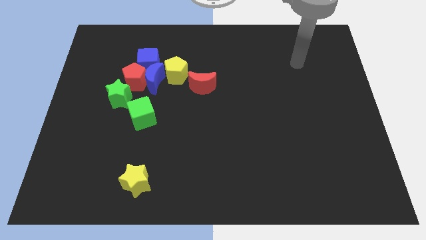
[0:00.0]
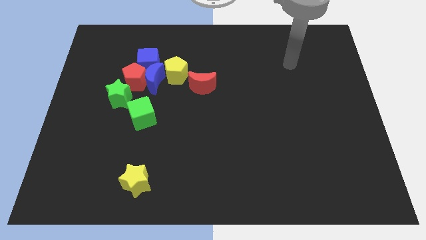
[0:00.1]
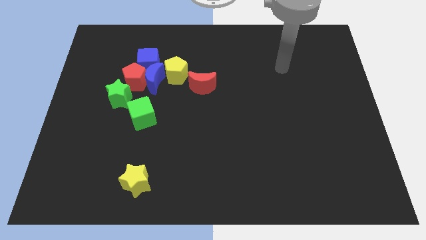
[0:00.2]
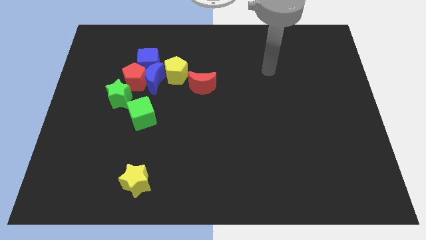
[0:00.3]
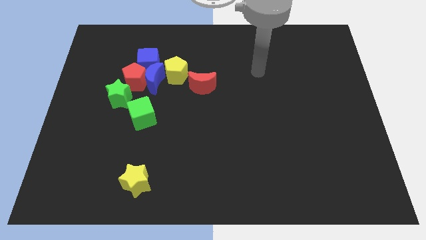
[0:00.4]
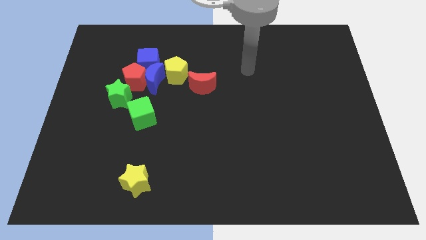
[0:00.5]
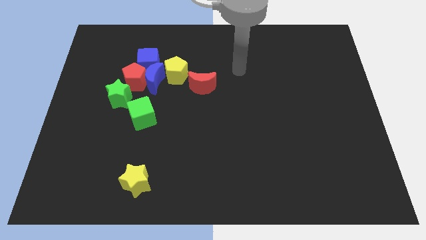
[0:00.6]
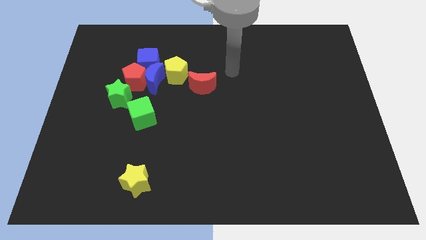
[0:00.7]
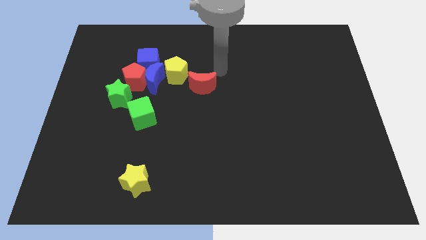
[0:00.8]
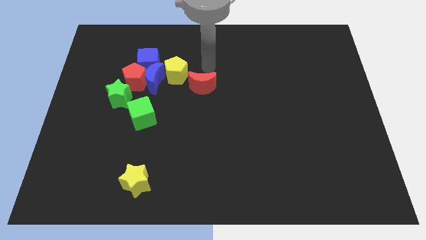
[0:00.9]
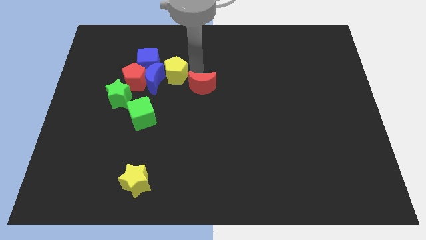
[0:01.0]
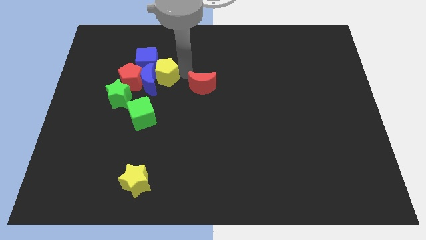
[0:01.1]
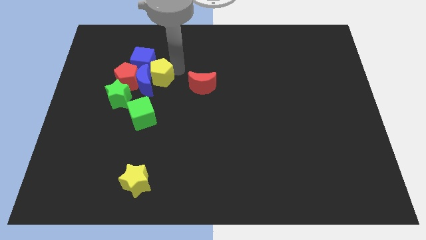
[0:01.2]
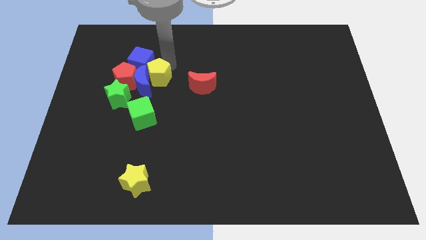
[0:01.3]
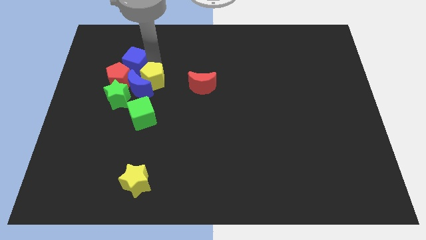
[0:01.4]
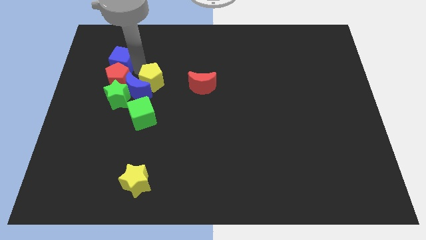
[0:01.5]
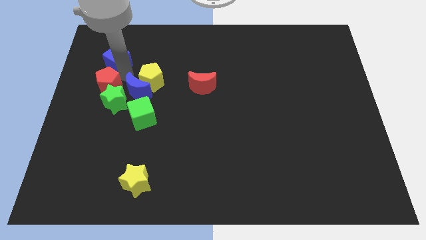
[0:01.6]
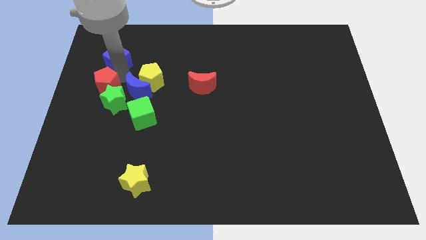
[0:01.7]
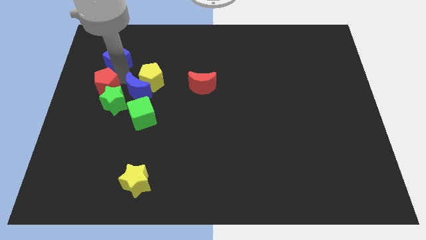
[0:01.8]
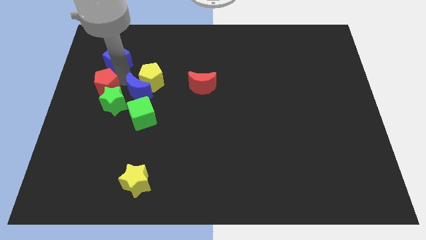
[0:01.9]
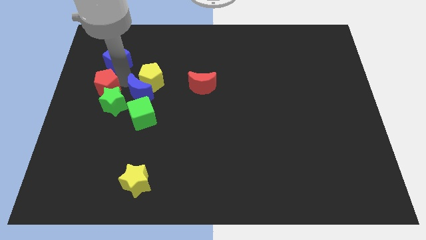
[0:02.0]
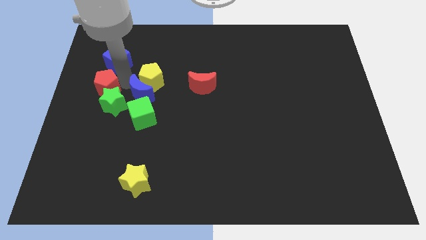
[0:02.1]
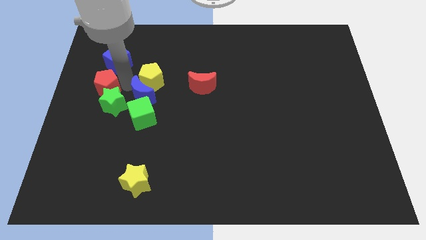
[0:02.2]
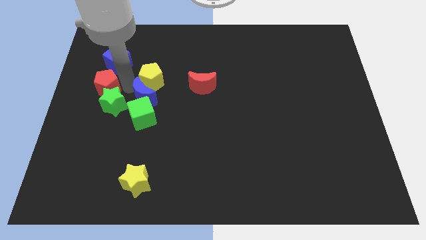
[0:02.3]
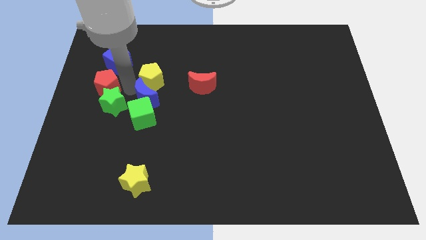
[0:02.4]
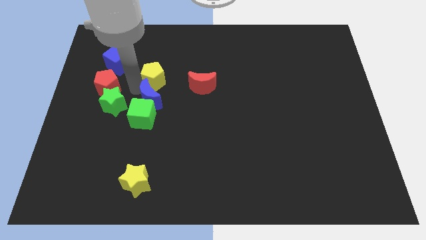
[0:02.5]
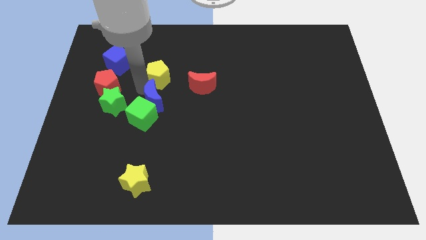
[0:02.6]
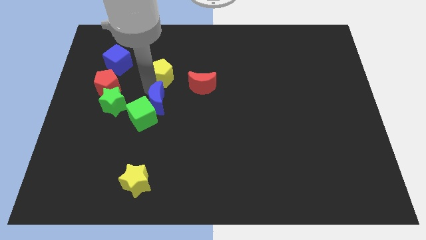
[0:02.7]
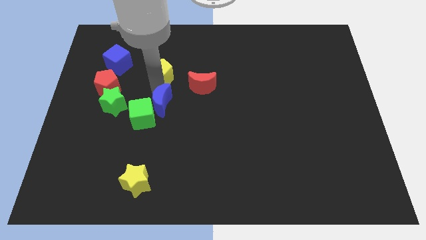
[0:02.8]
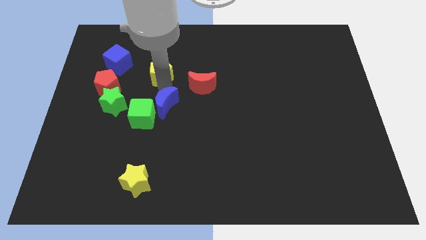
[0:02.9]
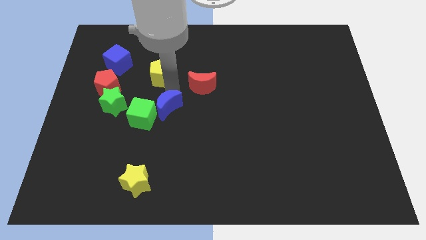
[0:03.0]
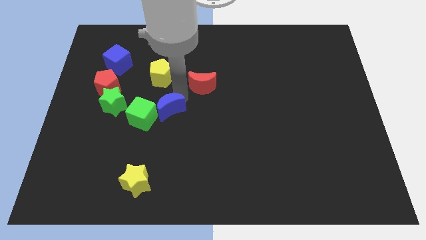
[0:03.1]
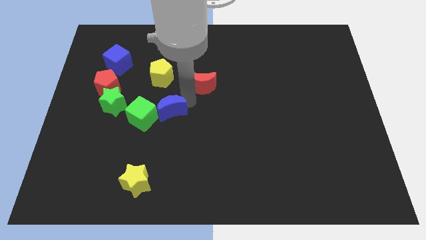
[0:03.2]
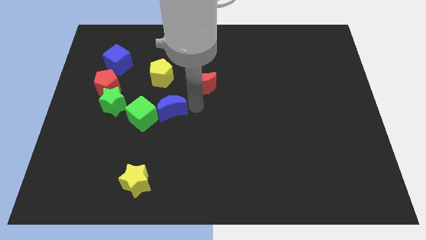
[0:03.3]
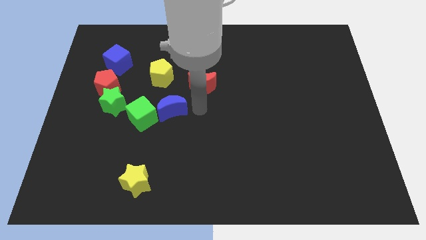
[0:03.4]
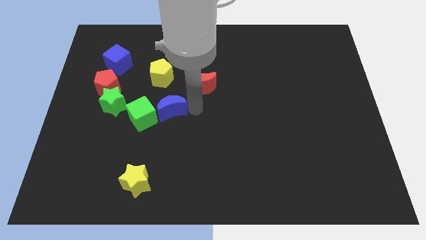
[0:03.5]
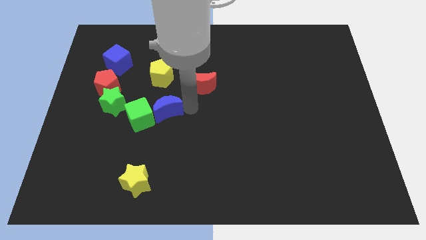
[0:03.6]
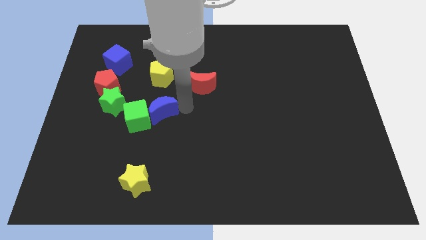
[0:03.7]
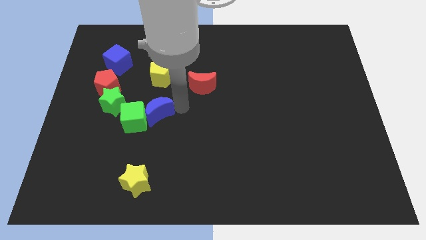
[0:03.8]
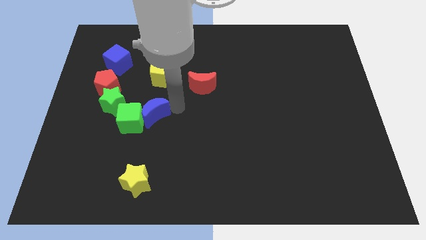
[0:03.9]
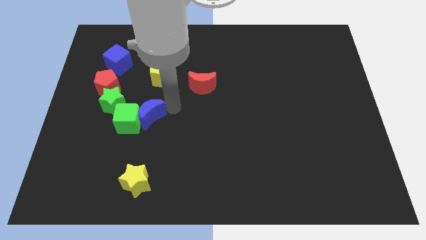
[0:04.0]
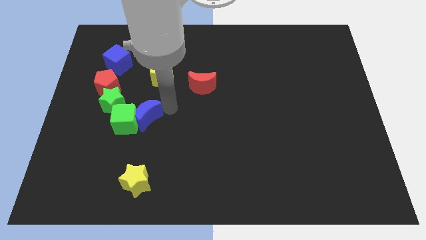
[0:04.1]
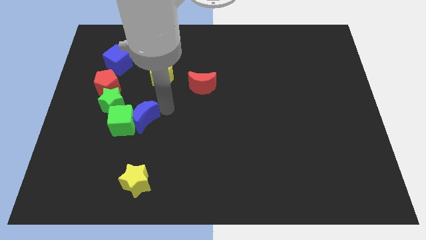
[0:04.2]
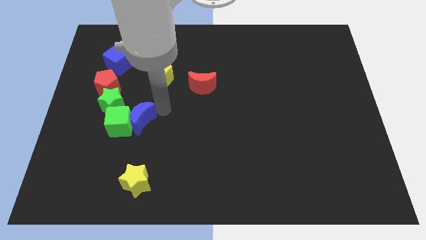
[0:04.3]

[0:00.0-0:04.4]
slightly move the blue moon down and to the left

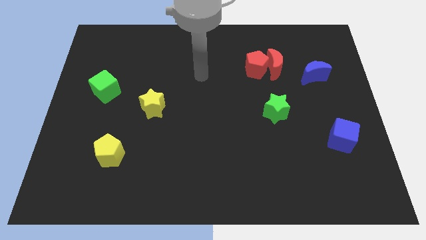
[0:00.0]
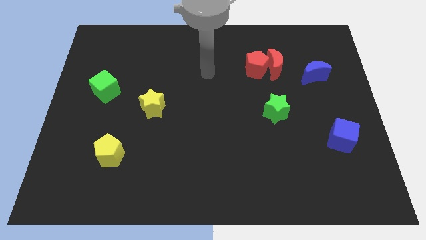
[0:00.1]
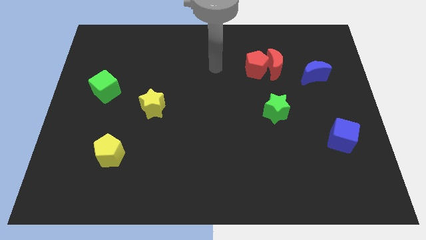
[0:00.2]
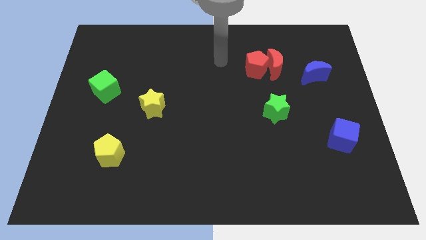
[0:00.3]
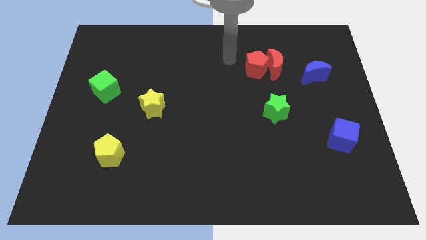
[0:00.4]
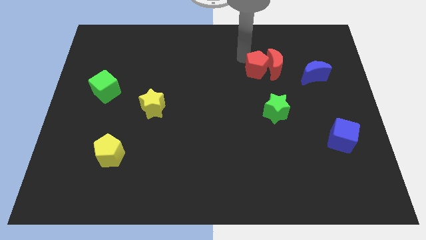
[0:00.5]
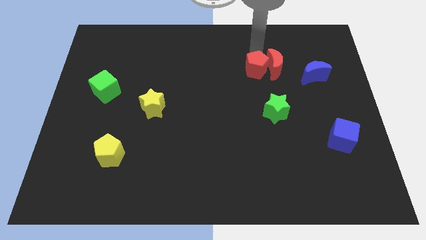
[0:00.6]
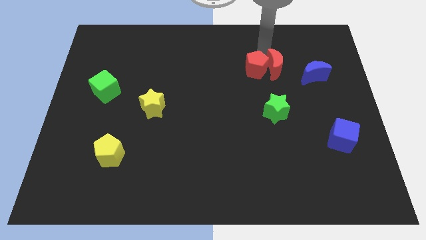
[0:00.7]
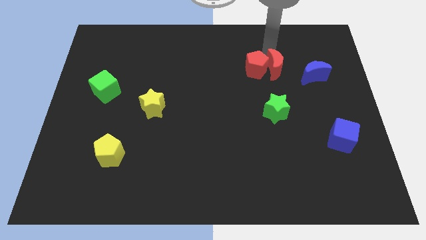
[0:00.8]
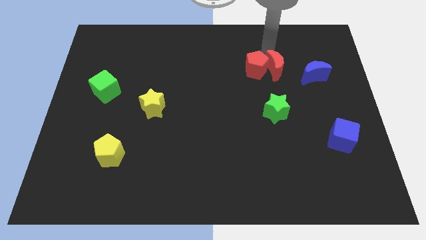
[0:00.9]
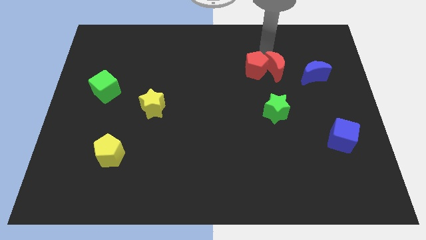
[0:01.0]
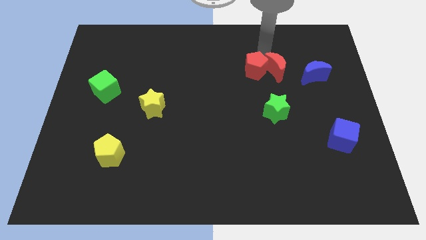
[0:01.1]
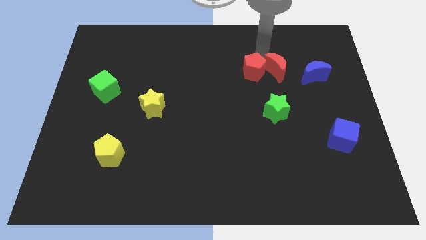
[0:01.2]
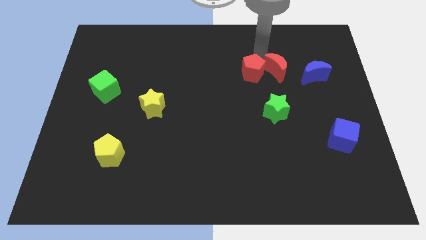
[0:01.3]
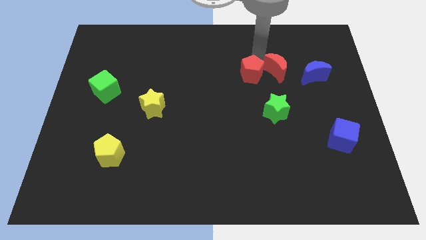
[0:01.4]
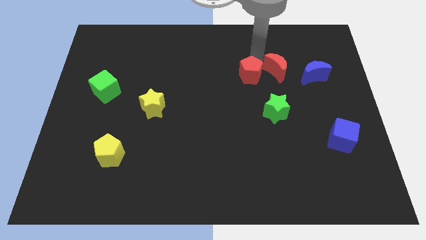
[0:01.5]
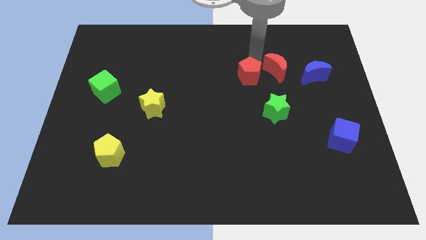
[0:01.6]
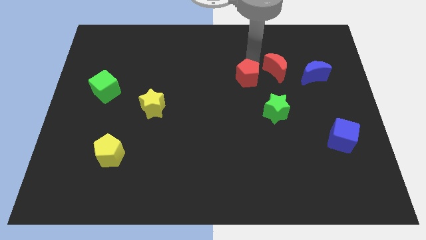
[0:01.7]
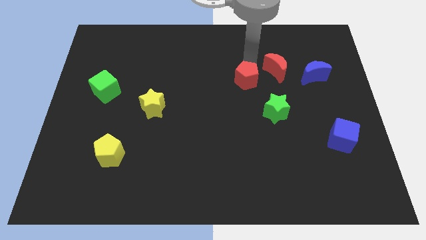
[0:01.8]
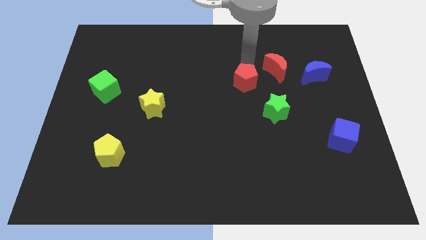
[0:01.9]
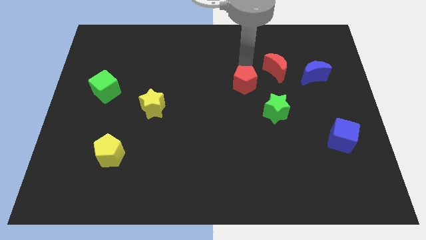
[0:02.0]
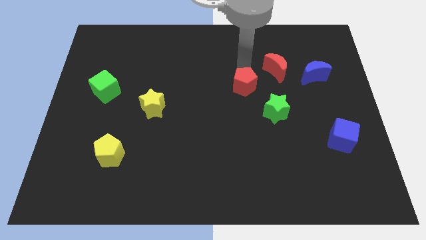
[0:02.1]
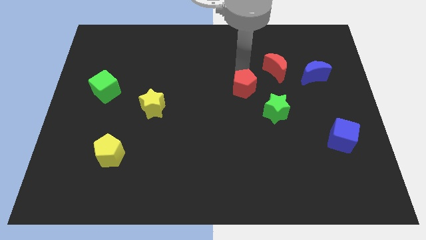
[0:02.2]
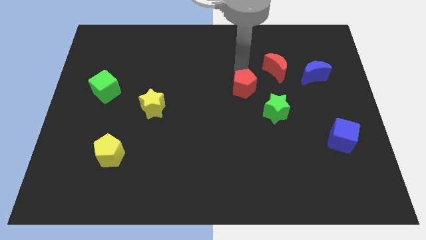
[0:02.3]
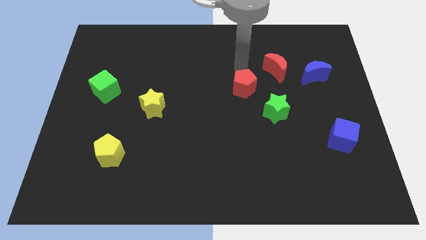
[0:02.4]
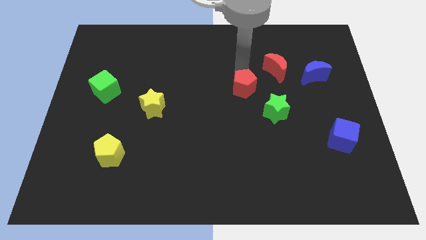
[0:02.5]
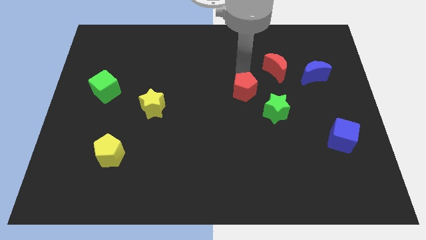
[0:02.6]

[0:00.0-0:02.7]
slide the red pentagon down a little bit

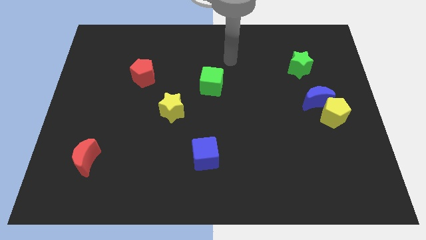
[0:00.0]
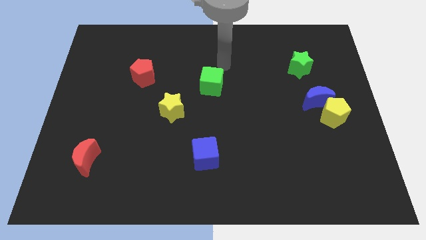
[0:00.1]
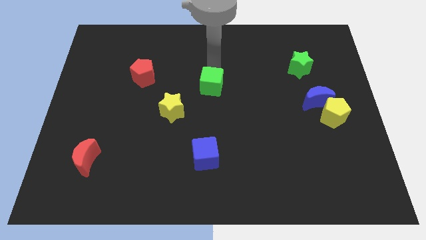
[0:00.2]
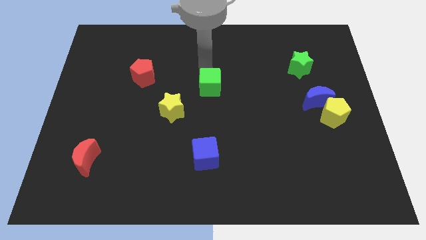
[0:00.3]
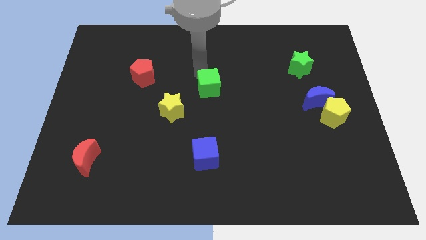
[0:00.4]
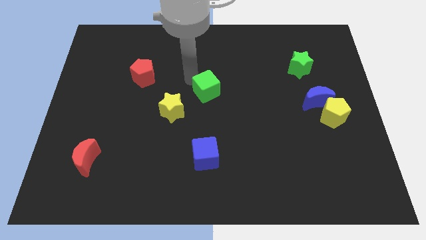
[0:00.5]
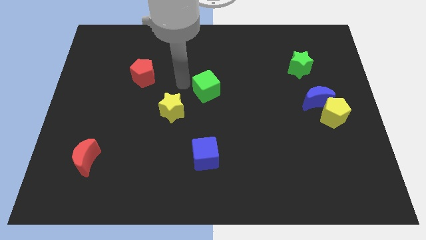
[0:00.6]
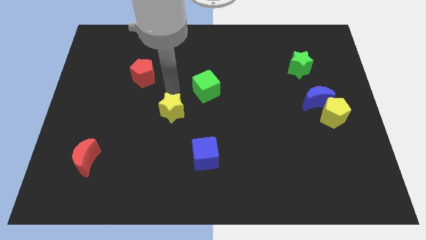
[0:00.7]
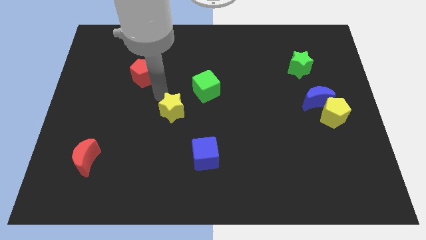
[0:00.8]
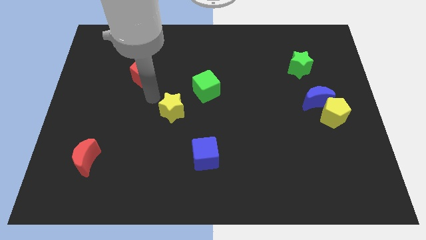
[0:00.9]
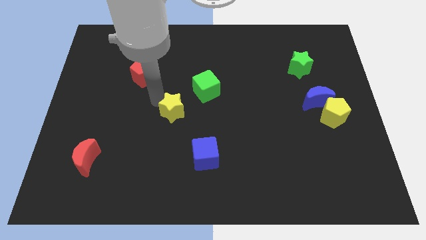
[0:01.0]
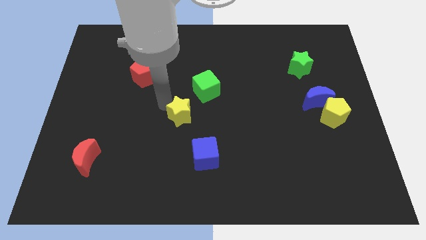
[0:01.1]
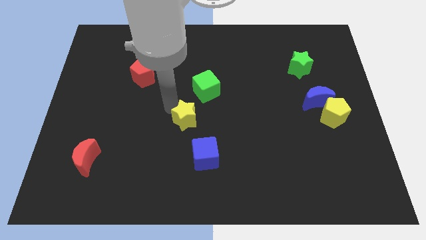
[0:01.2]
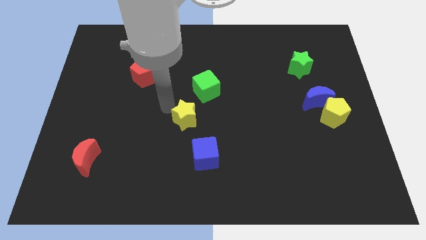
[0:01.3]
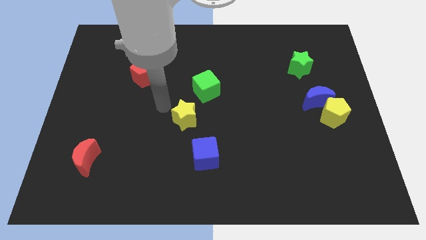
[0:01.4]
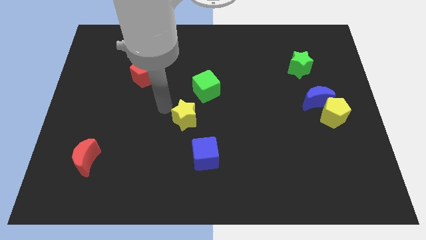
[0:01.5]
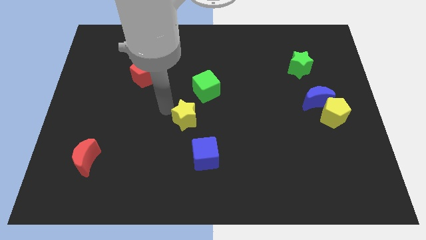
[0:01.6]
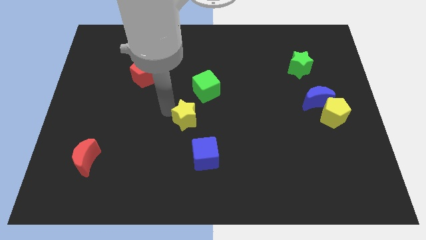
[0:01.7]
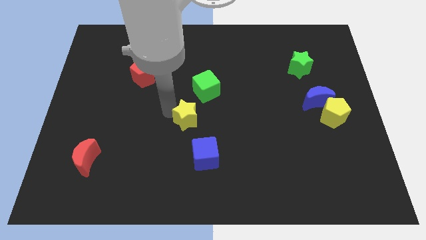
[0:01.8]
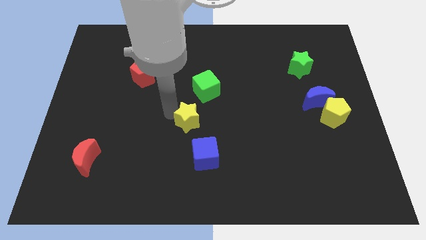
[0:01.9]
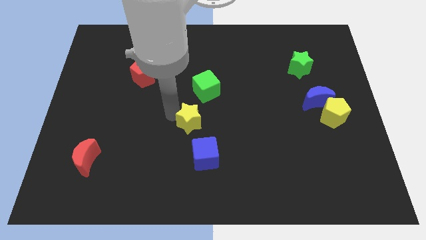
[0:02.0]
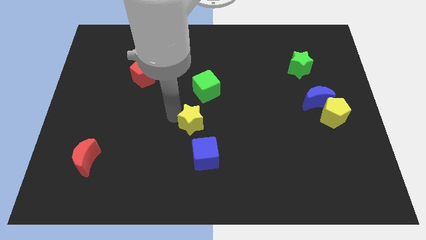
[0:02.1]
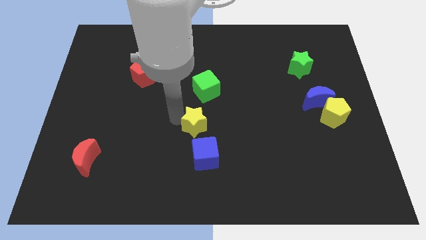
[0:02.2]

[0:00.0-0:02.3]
push the yellow star down and to the right diagonally a bit
